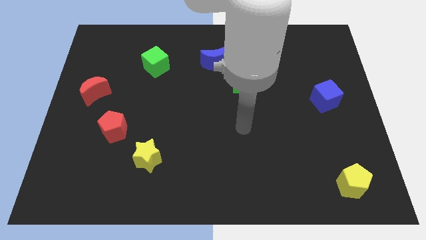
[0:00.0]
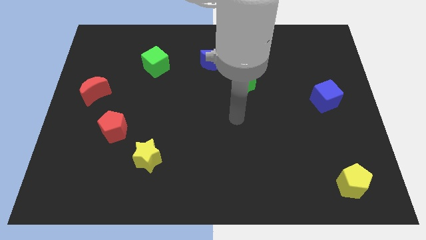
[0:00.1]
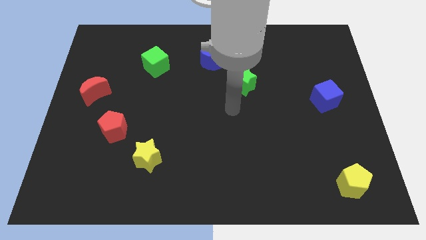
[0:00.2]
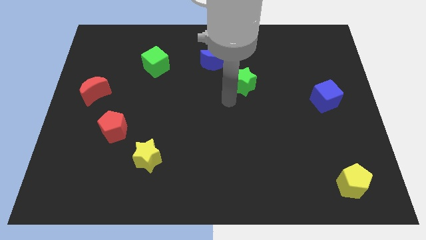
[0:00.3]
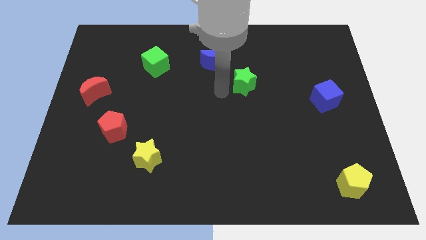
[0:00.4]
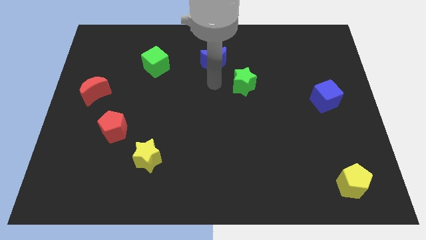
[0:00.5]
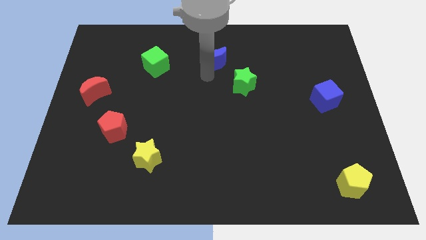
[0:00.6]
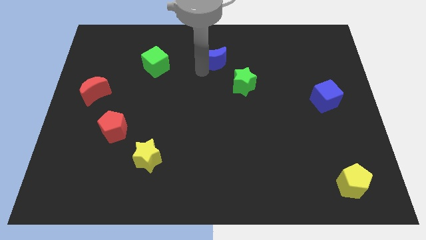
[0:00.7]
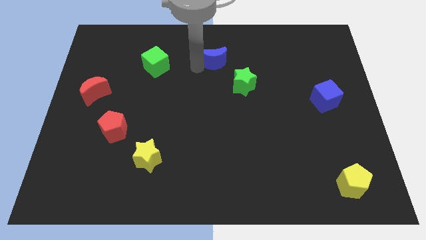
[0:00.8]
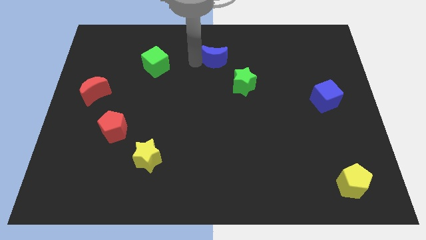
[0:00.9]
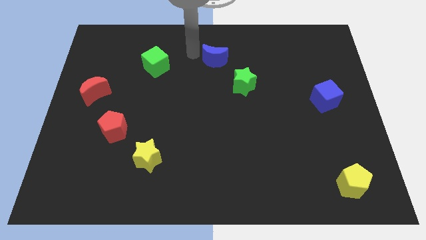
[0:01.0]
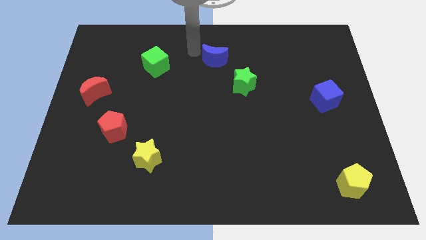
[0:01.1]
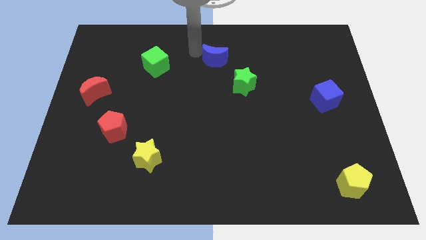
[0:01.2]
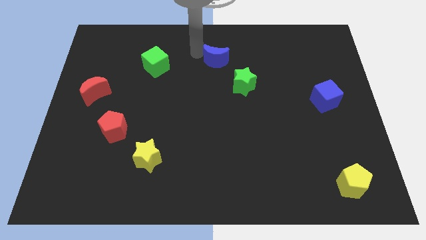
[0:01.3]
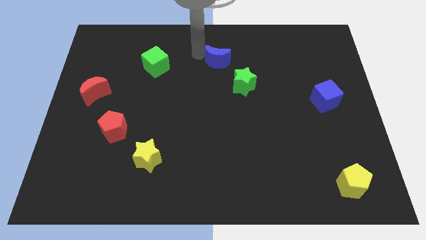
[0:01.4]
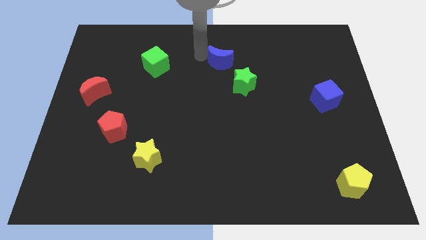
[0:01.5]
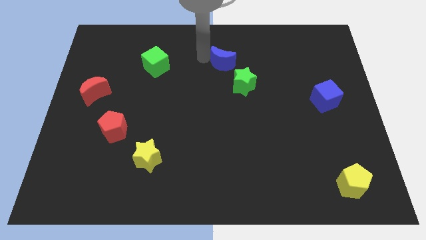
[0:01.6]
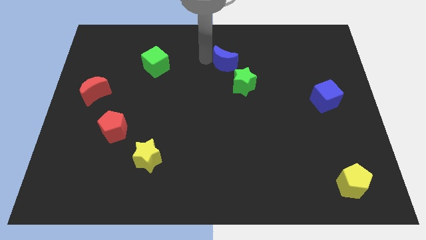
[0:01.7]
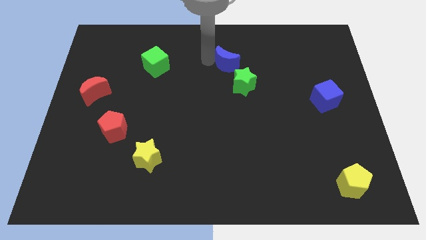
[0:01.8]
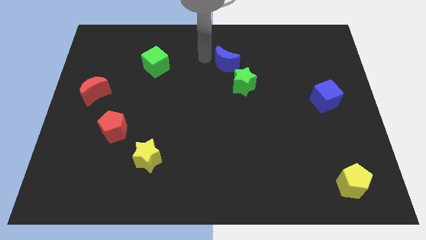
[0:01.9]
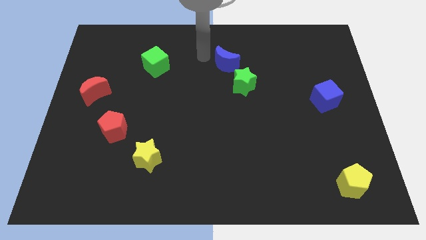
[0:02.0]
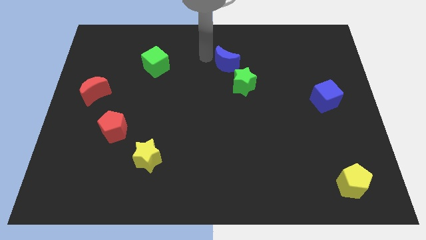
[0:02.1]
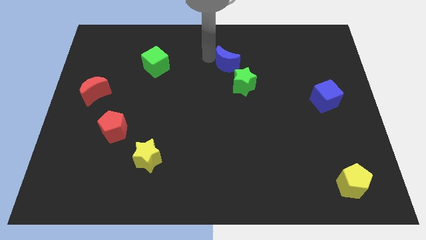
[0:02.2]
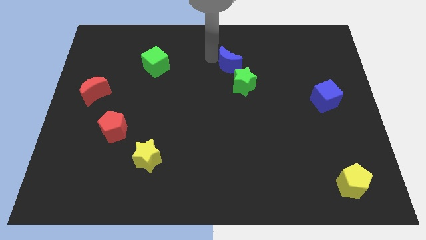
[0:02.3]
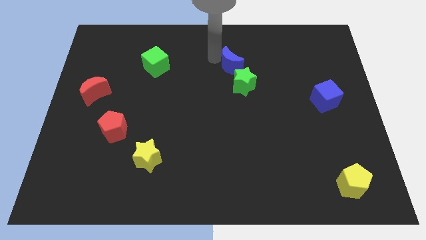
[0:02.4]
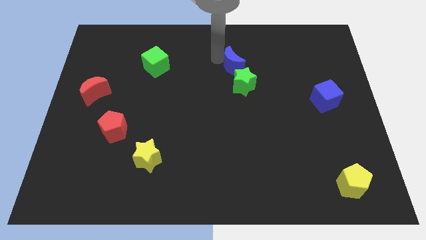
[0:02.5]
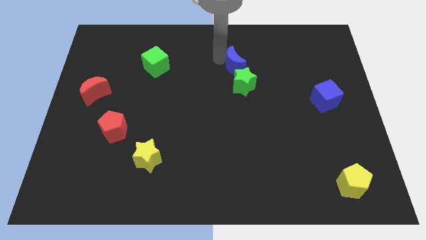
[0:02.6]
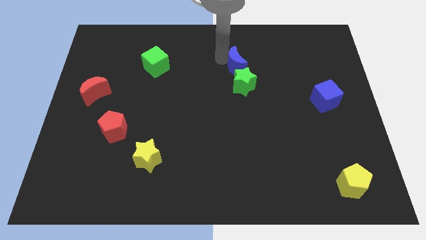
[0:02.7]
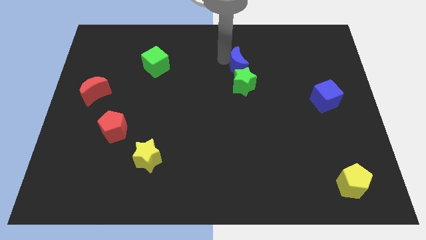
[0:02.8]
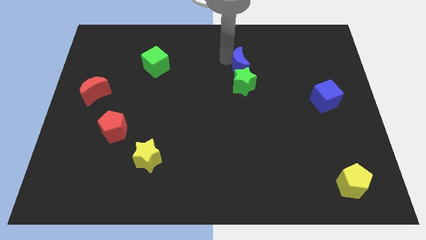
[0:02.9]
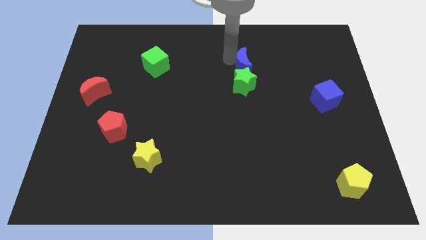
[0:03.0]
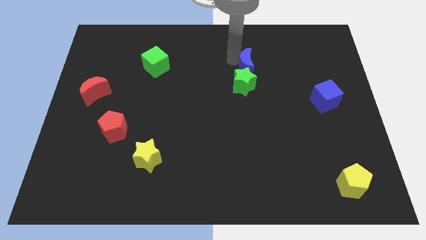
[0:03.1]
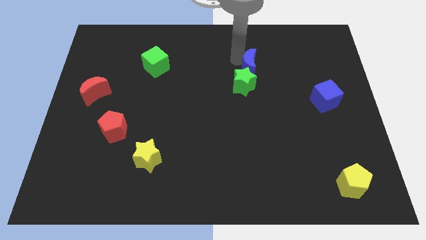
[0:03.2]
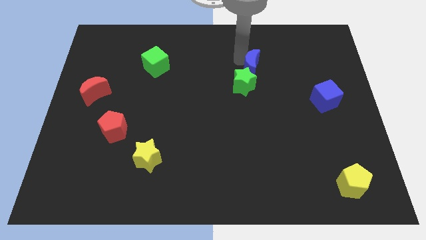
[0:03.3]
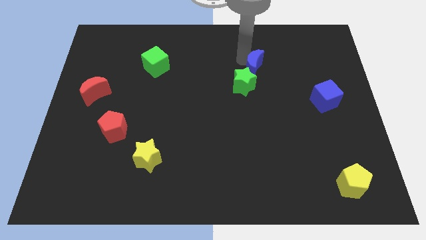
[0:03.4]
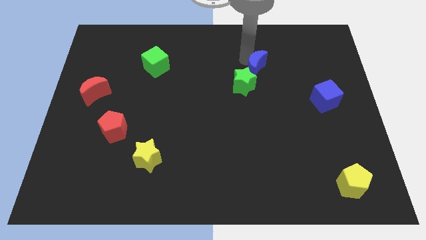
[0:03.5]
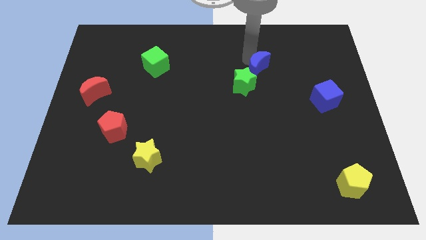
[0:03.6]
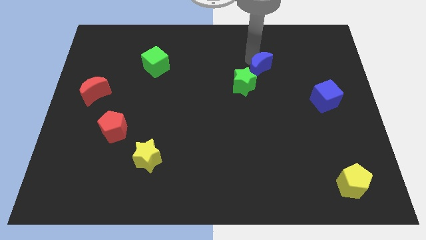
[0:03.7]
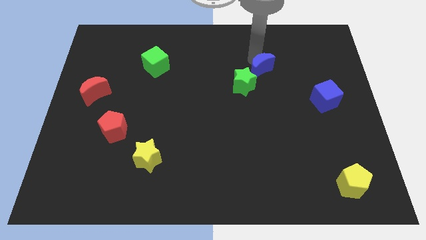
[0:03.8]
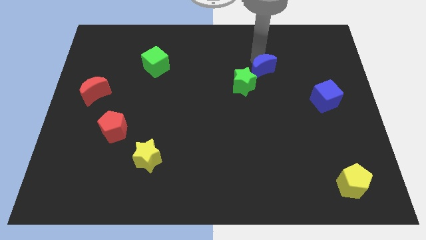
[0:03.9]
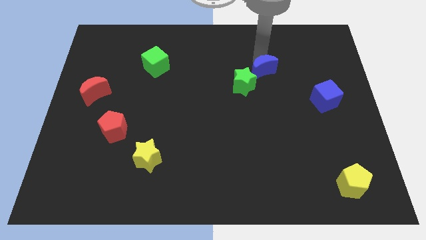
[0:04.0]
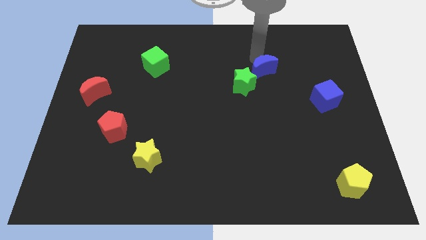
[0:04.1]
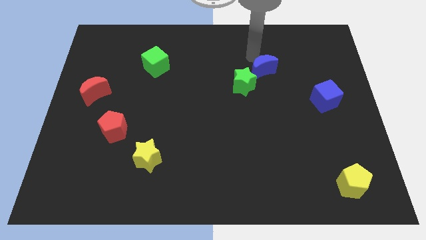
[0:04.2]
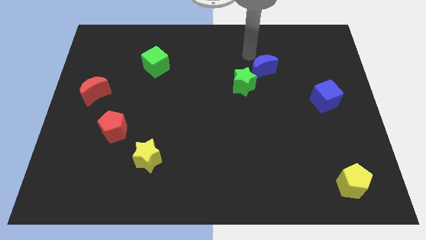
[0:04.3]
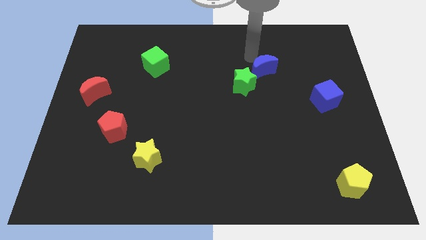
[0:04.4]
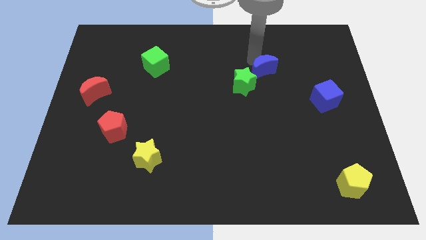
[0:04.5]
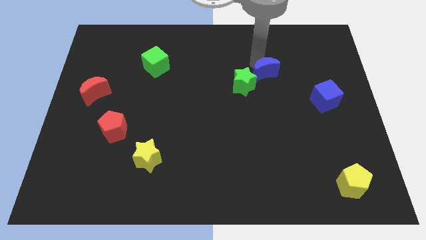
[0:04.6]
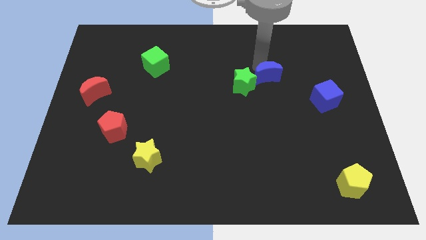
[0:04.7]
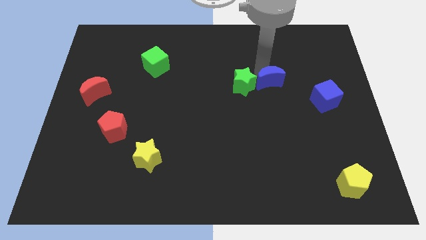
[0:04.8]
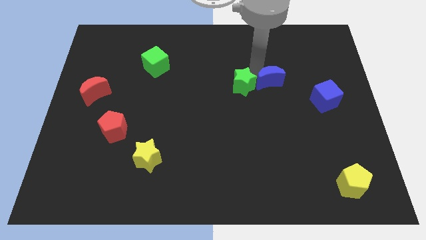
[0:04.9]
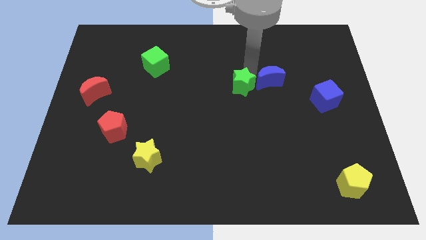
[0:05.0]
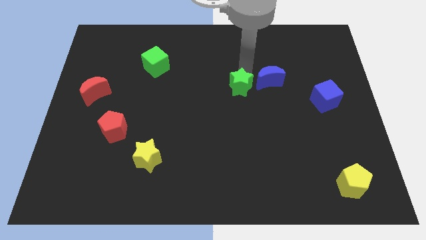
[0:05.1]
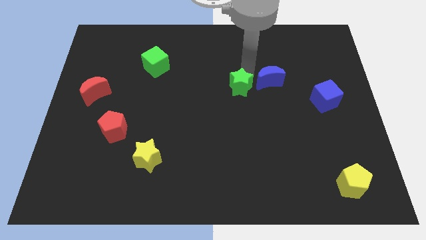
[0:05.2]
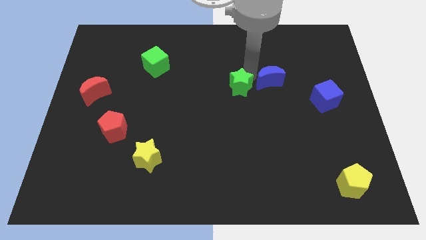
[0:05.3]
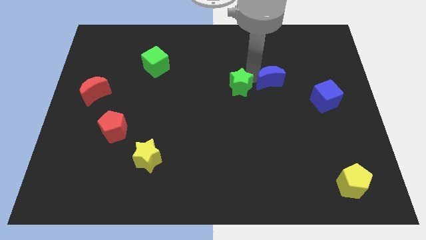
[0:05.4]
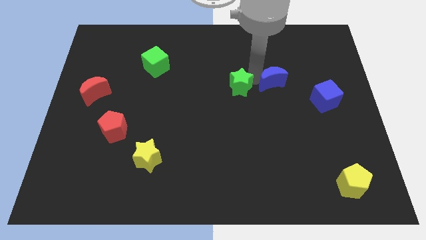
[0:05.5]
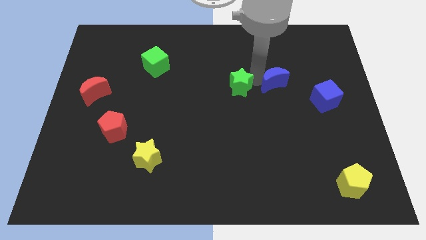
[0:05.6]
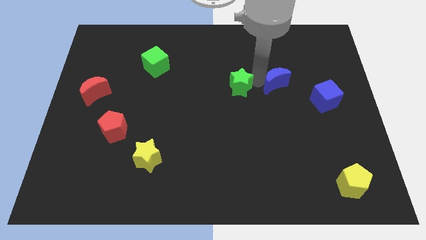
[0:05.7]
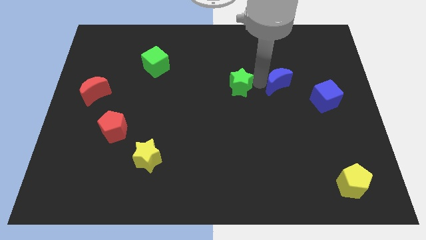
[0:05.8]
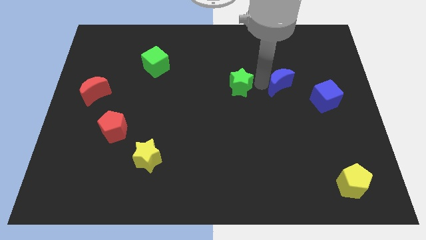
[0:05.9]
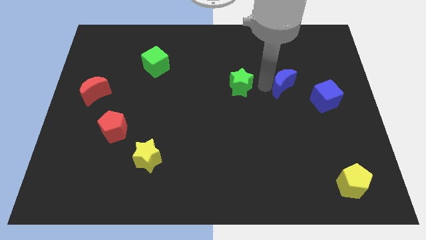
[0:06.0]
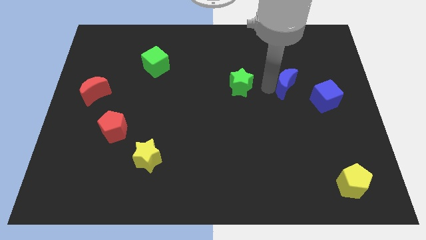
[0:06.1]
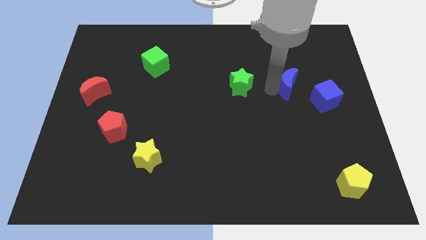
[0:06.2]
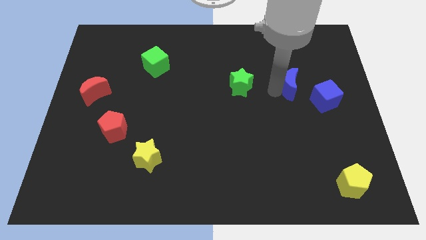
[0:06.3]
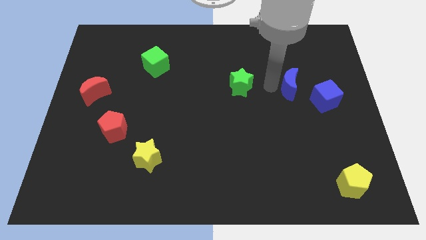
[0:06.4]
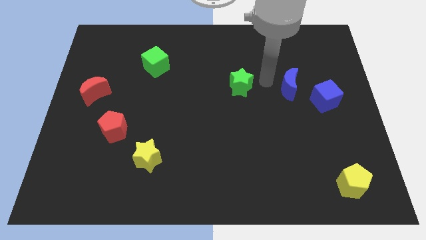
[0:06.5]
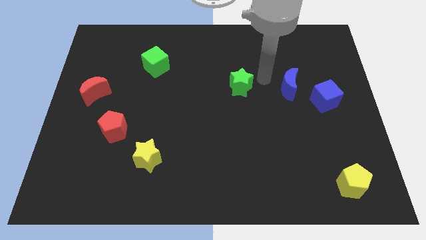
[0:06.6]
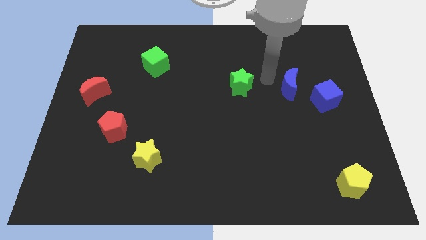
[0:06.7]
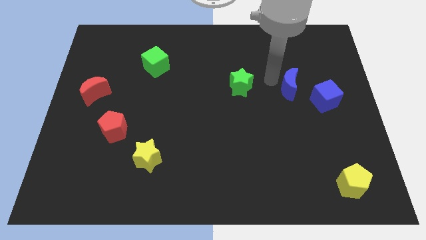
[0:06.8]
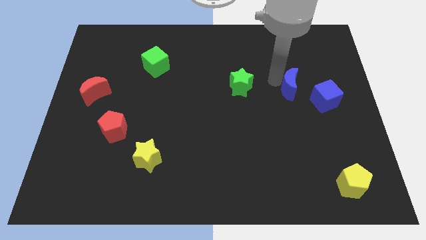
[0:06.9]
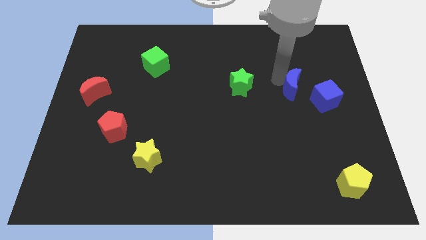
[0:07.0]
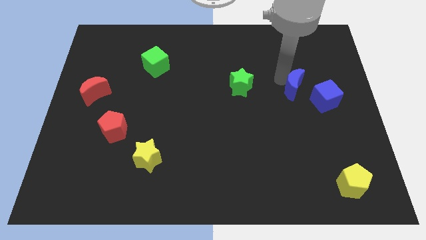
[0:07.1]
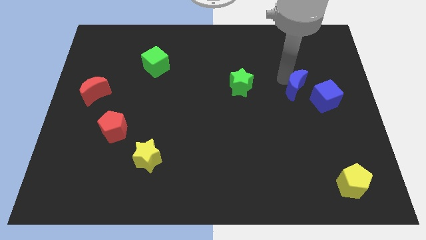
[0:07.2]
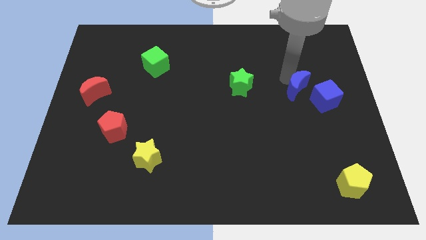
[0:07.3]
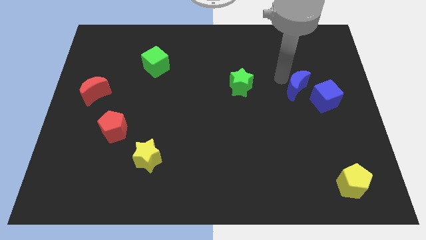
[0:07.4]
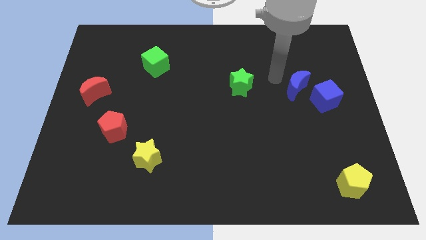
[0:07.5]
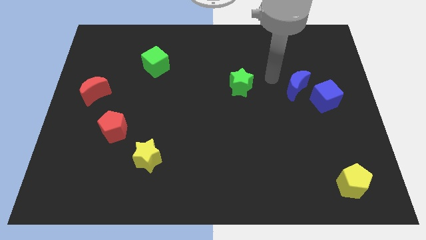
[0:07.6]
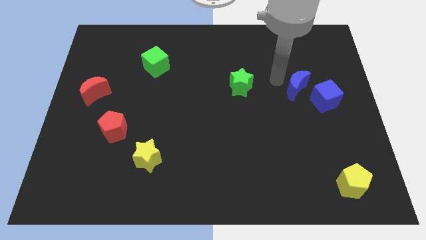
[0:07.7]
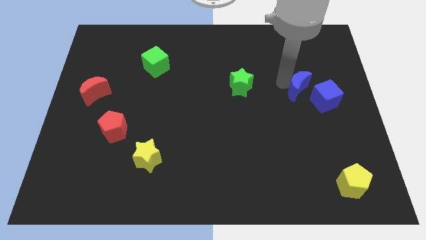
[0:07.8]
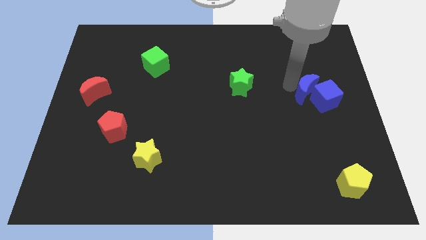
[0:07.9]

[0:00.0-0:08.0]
push the blue moon towards the blue cube
